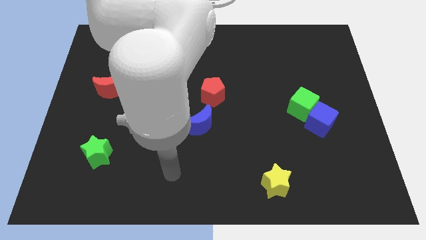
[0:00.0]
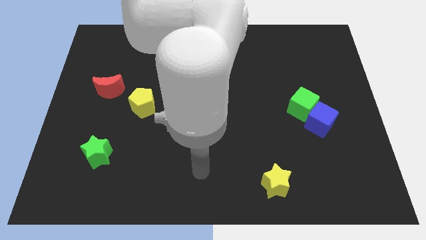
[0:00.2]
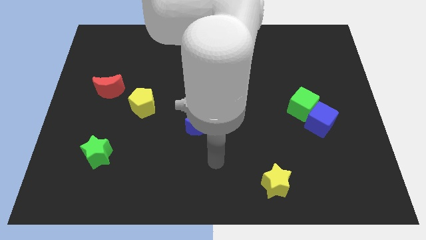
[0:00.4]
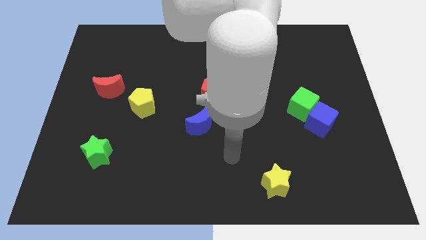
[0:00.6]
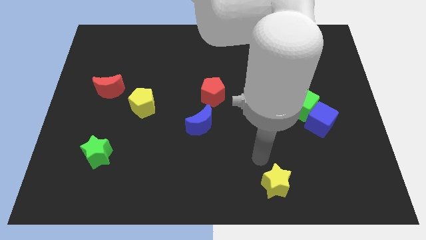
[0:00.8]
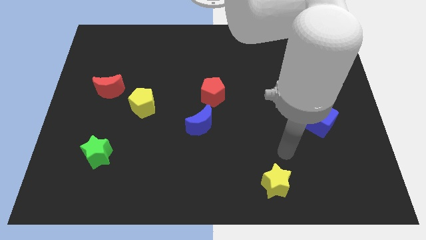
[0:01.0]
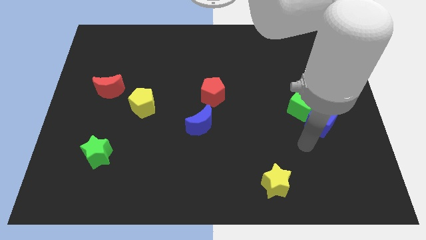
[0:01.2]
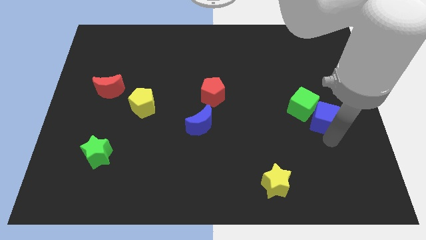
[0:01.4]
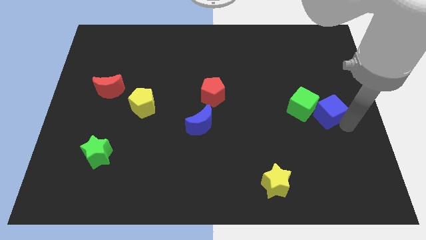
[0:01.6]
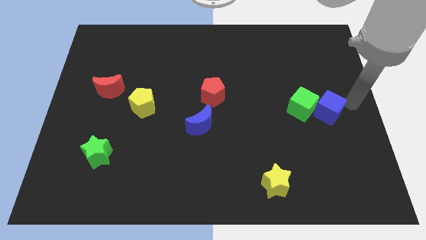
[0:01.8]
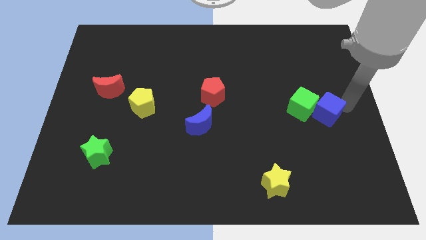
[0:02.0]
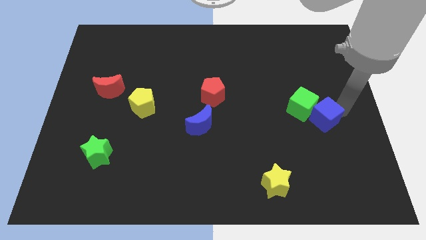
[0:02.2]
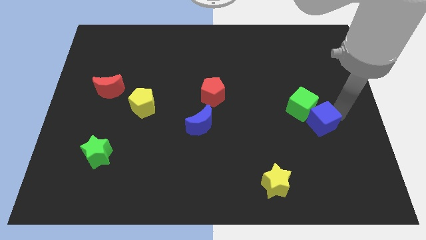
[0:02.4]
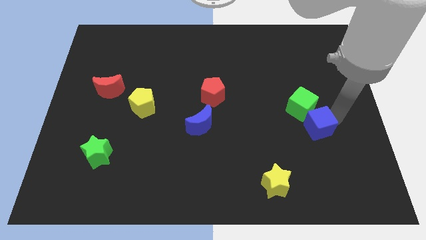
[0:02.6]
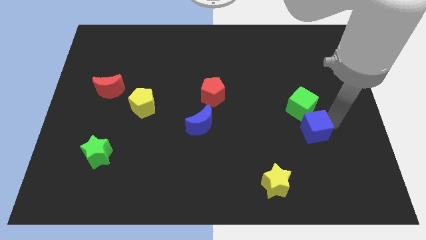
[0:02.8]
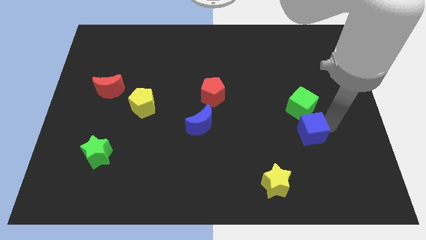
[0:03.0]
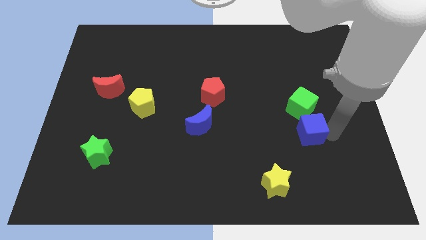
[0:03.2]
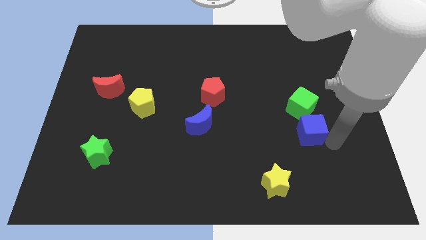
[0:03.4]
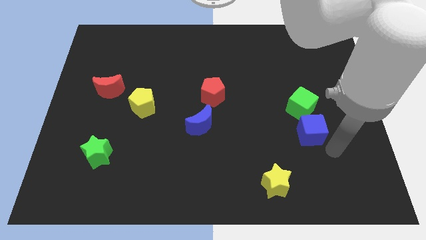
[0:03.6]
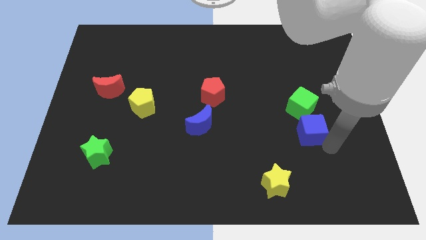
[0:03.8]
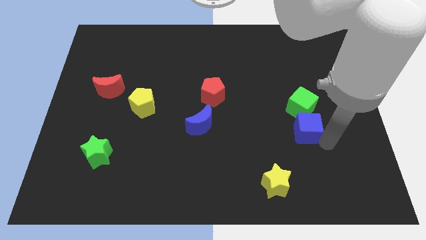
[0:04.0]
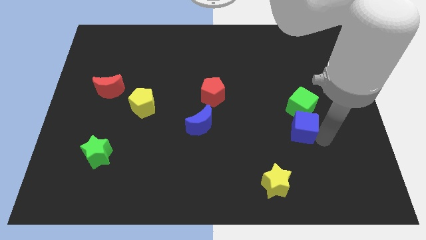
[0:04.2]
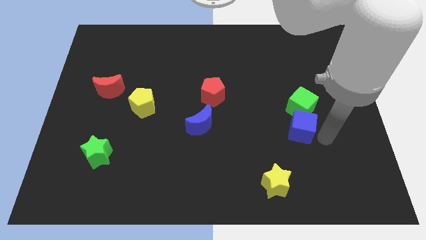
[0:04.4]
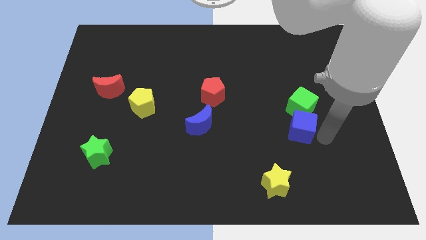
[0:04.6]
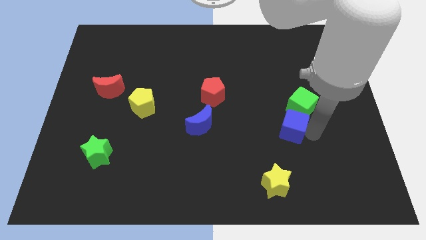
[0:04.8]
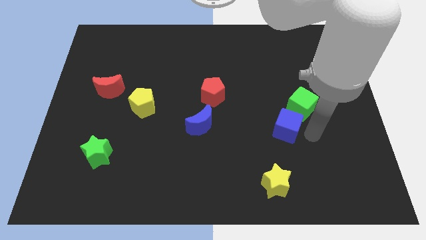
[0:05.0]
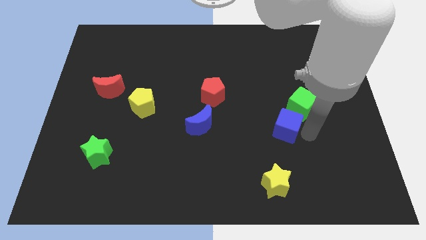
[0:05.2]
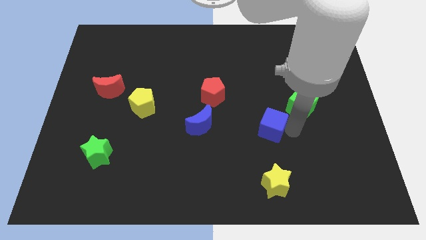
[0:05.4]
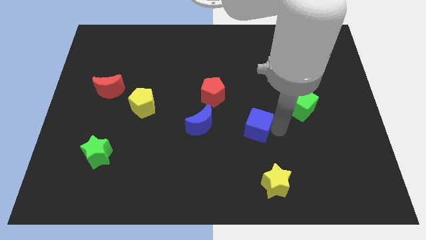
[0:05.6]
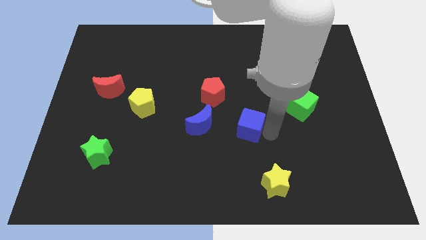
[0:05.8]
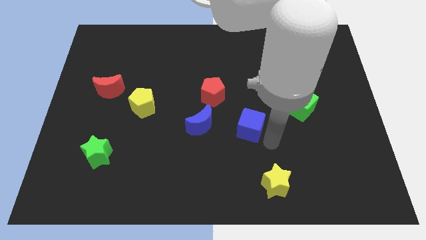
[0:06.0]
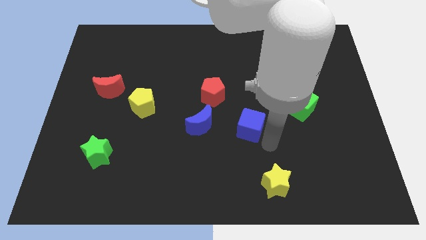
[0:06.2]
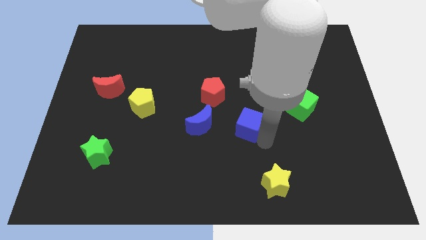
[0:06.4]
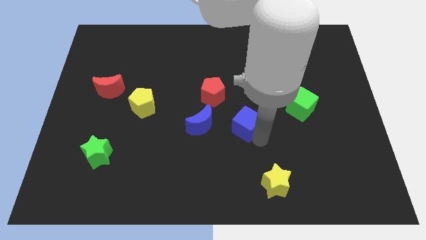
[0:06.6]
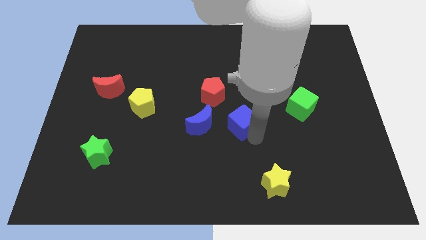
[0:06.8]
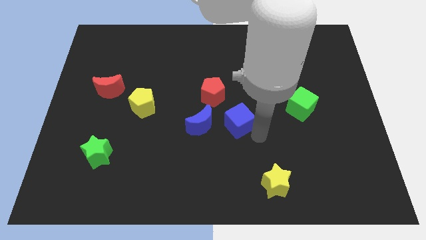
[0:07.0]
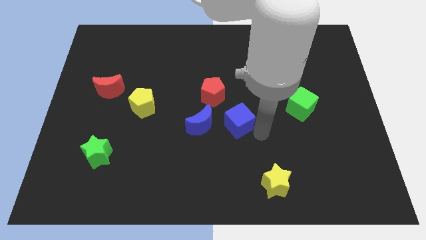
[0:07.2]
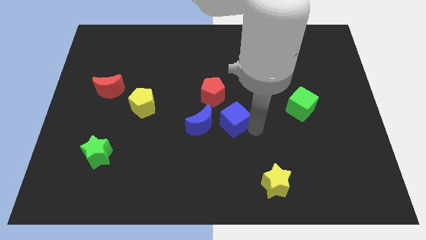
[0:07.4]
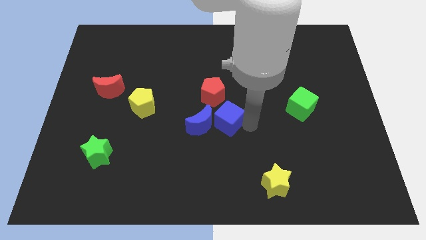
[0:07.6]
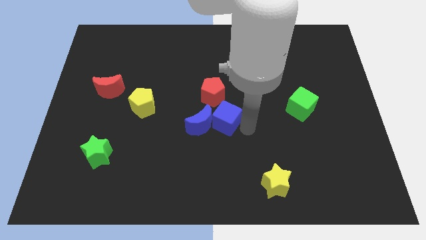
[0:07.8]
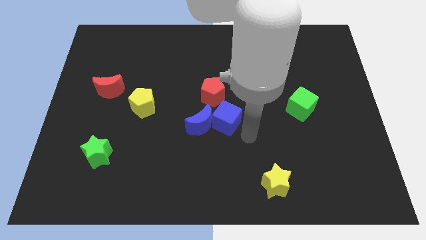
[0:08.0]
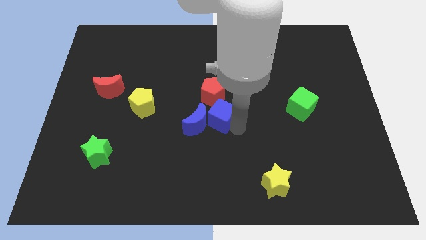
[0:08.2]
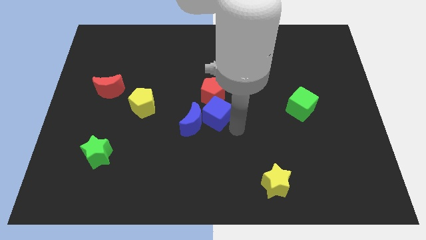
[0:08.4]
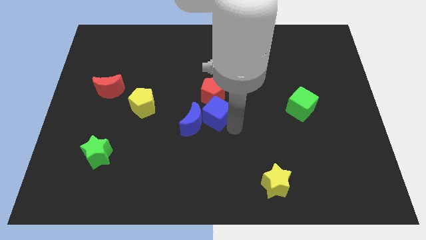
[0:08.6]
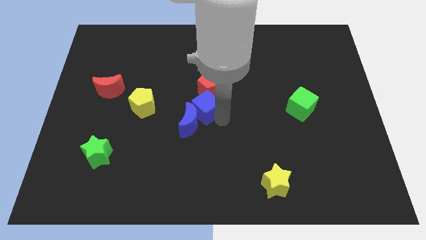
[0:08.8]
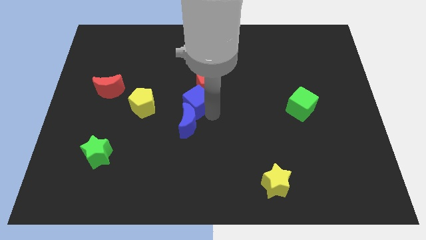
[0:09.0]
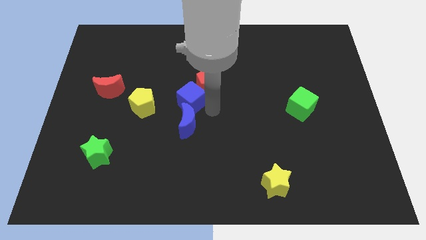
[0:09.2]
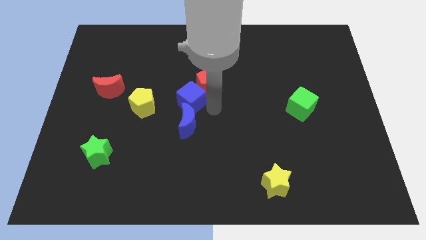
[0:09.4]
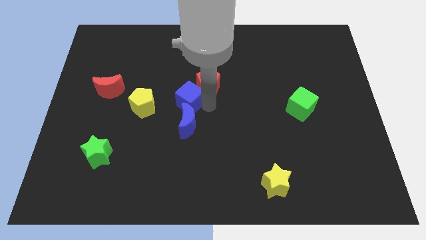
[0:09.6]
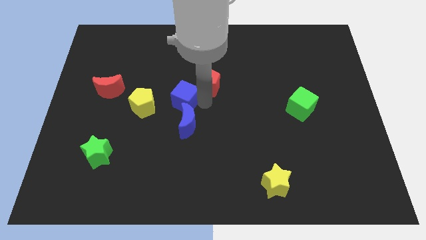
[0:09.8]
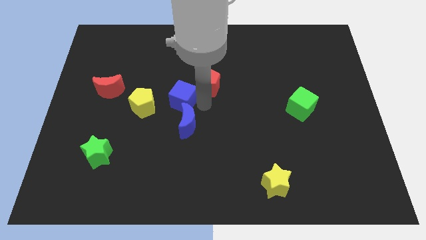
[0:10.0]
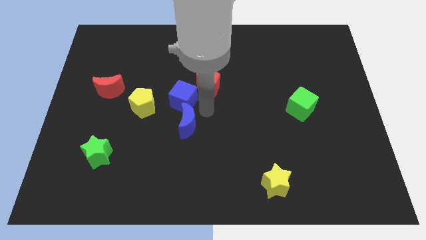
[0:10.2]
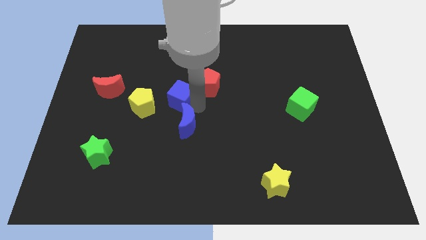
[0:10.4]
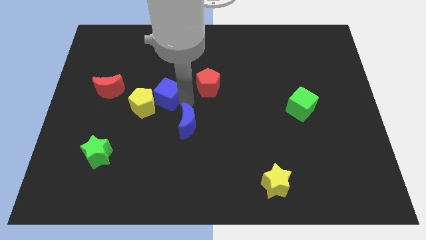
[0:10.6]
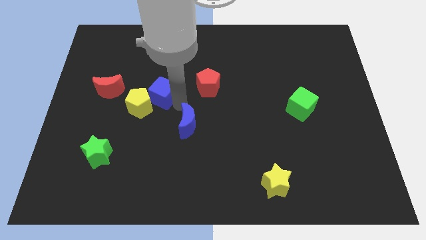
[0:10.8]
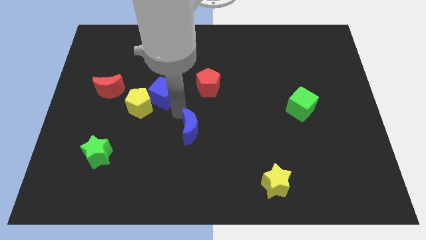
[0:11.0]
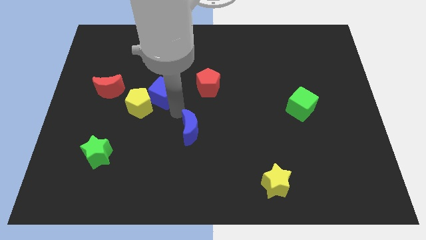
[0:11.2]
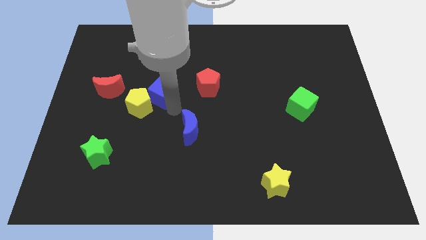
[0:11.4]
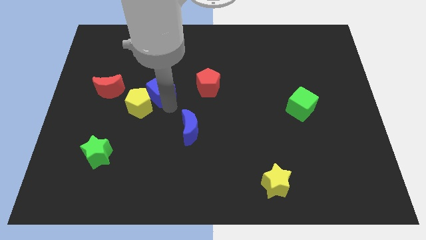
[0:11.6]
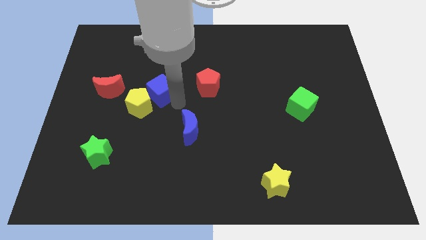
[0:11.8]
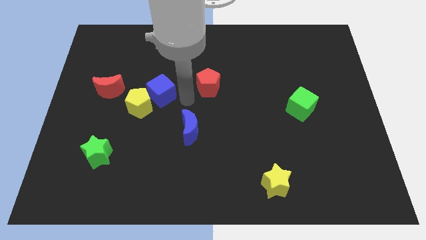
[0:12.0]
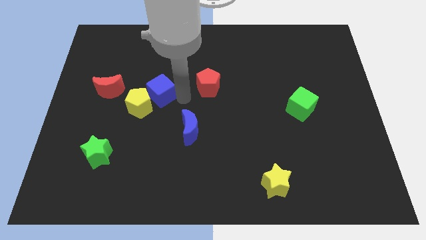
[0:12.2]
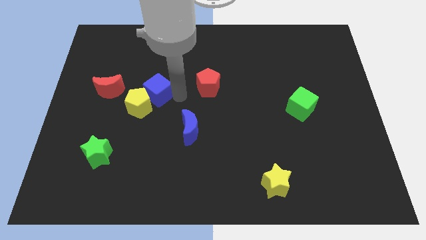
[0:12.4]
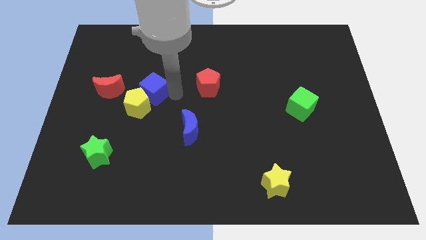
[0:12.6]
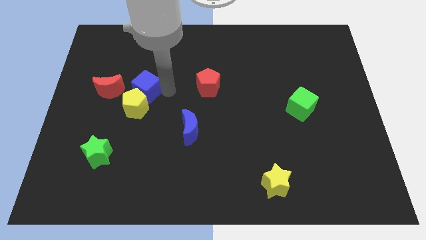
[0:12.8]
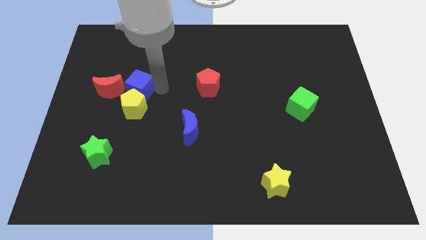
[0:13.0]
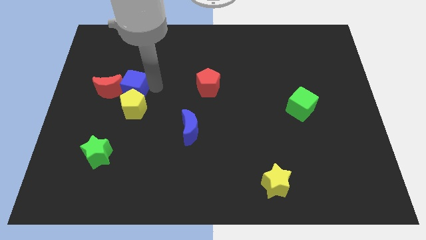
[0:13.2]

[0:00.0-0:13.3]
move the blue cube next to the red moon

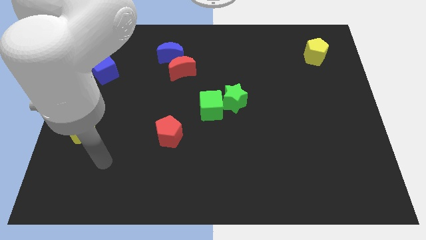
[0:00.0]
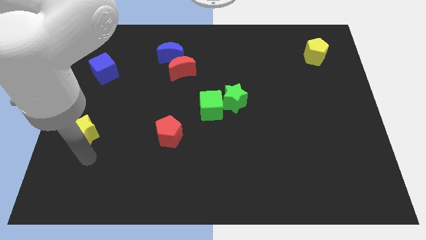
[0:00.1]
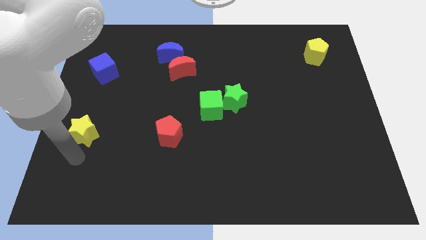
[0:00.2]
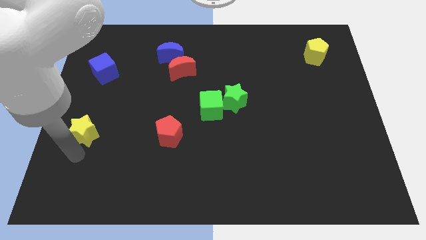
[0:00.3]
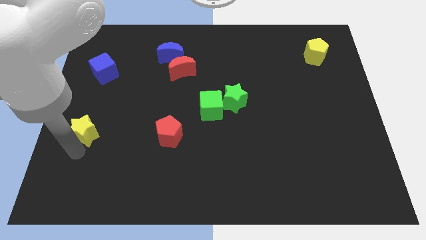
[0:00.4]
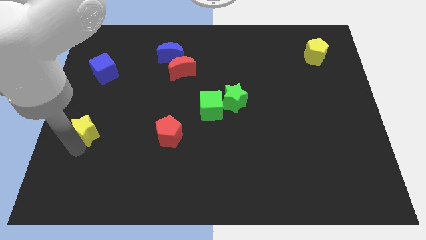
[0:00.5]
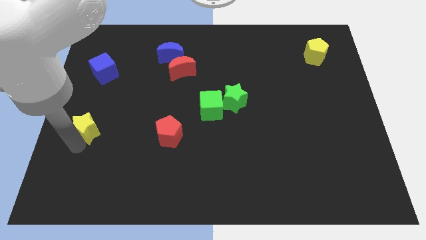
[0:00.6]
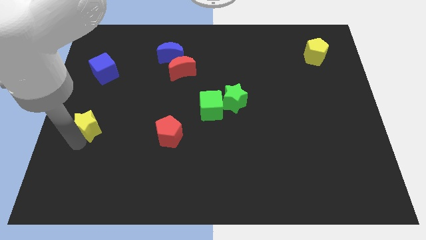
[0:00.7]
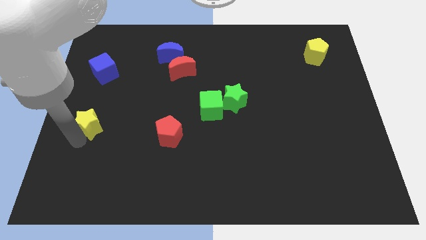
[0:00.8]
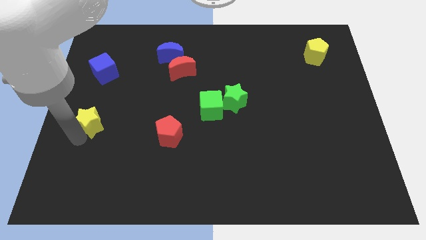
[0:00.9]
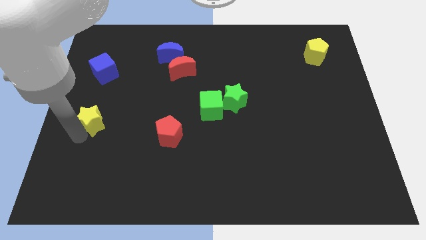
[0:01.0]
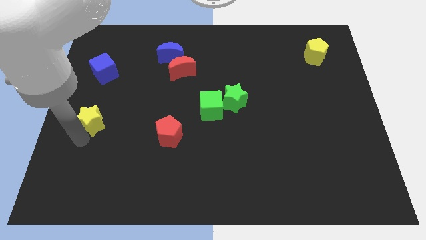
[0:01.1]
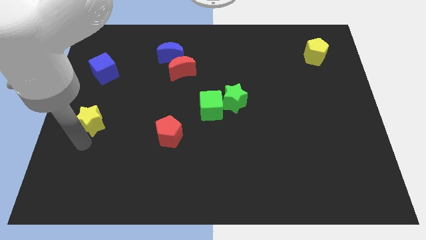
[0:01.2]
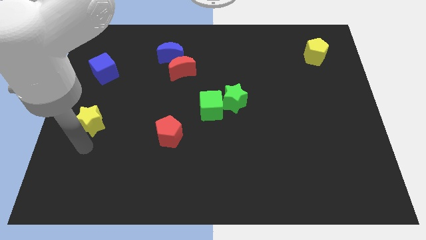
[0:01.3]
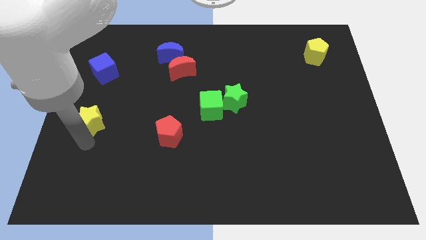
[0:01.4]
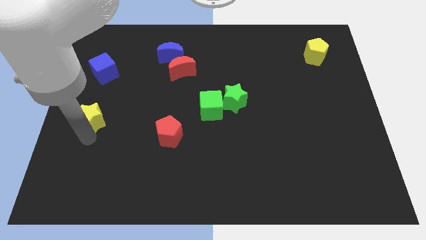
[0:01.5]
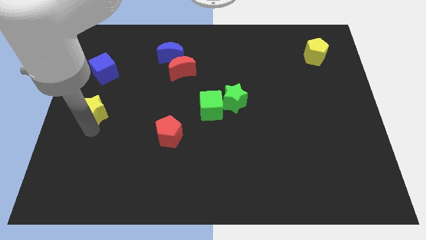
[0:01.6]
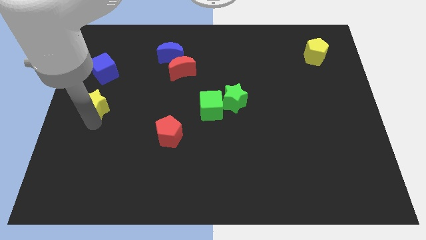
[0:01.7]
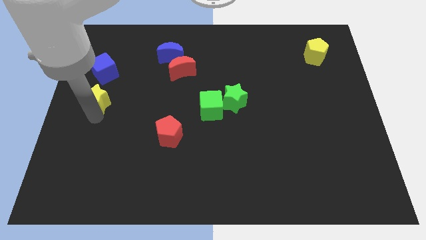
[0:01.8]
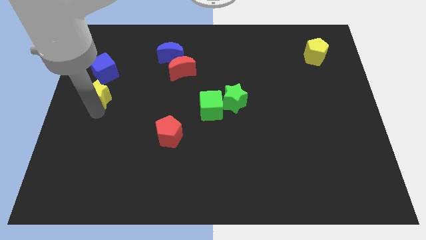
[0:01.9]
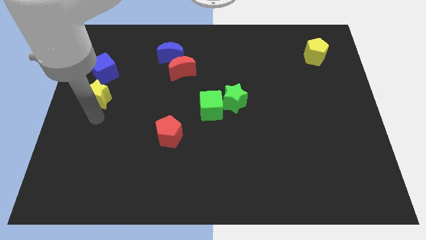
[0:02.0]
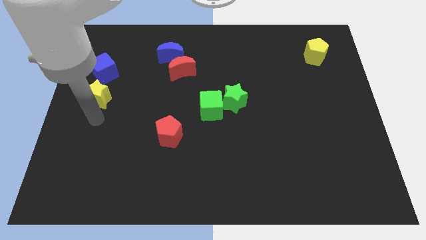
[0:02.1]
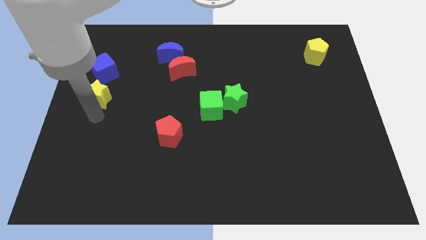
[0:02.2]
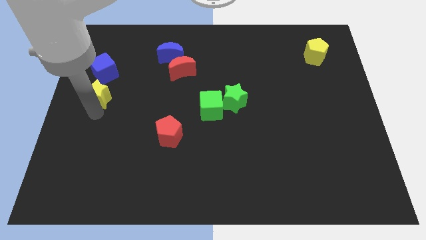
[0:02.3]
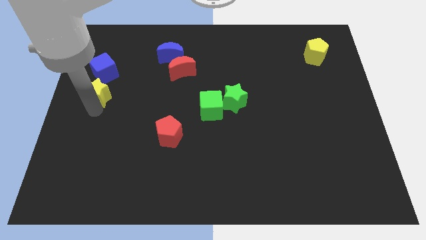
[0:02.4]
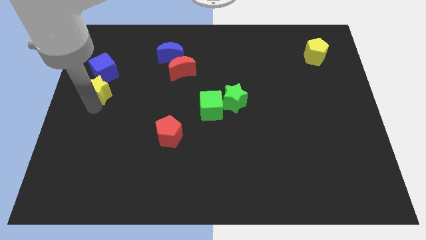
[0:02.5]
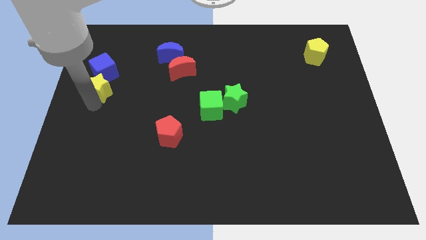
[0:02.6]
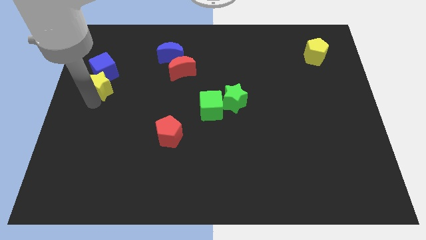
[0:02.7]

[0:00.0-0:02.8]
put the yellow star towards the blue cube
